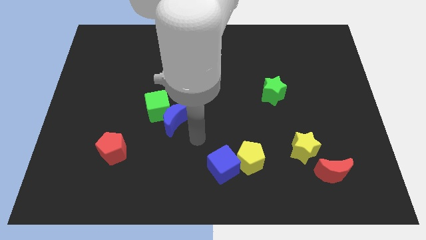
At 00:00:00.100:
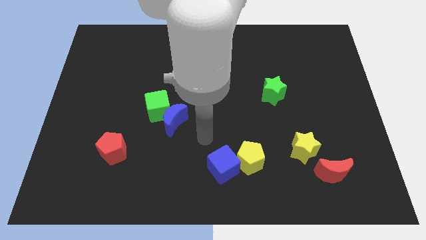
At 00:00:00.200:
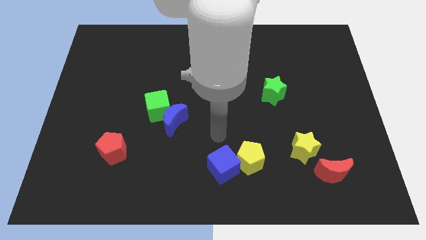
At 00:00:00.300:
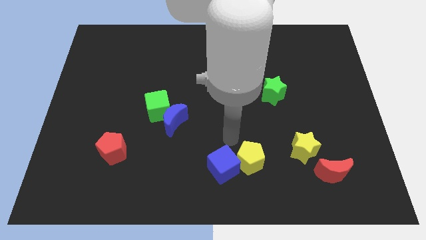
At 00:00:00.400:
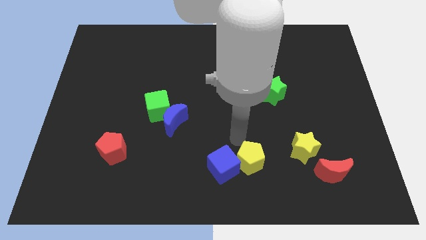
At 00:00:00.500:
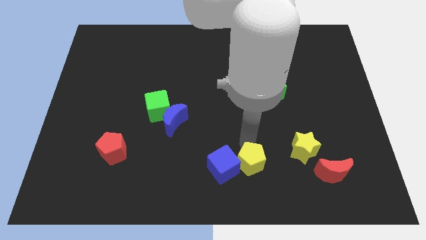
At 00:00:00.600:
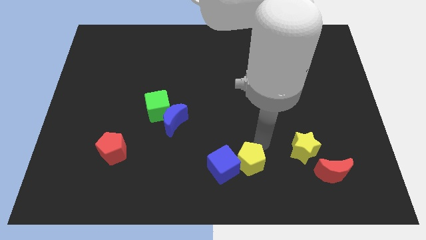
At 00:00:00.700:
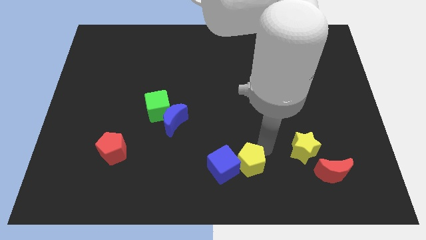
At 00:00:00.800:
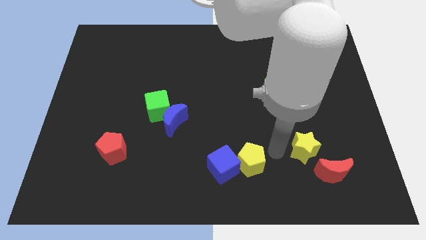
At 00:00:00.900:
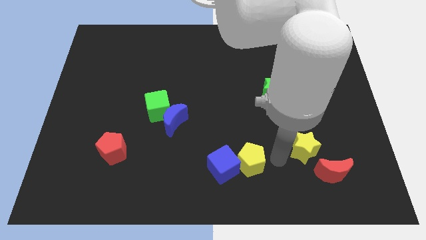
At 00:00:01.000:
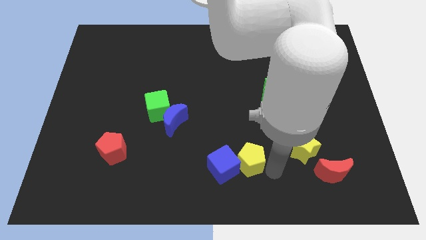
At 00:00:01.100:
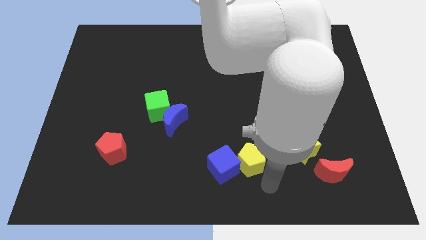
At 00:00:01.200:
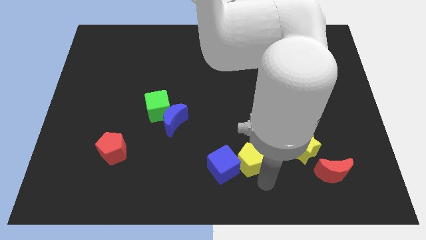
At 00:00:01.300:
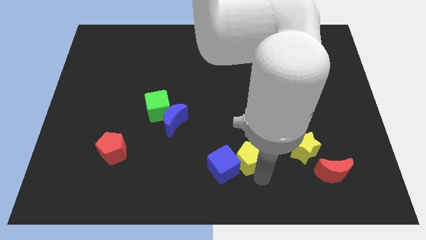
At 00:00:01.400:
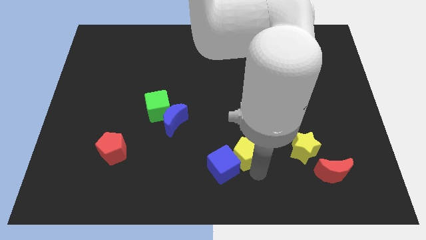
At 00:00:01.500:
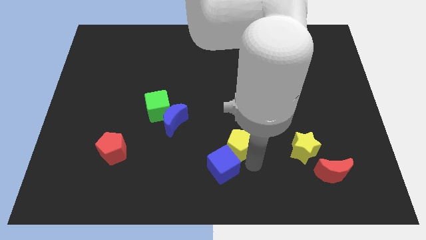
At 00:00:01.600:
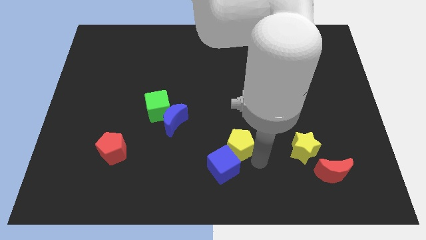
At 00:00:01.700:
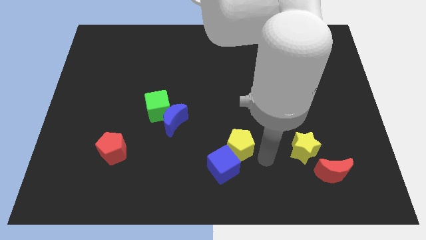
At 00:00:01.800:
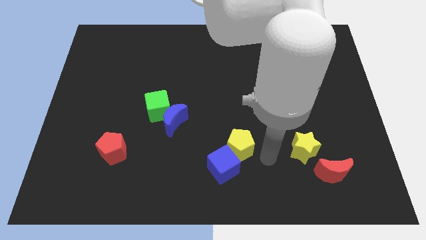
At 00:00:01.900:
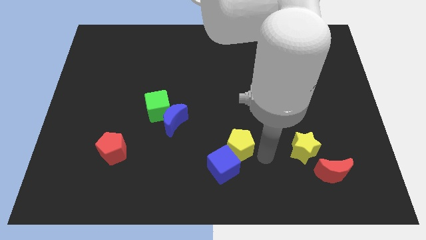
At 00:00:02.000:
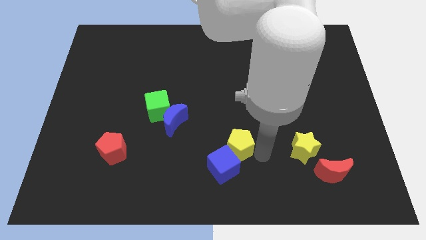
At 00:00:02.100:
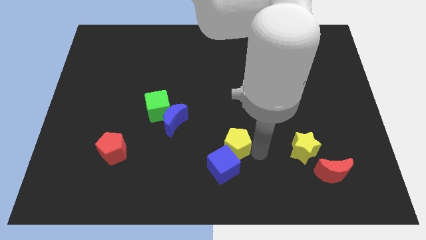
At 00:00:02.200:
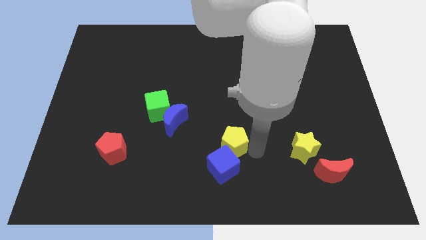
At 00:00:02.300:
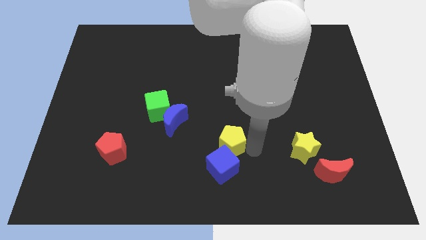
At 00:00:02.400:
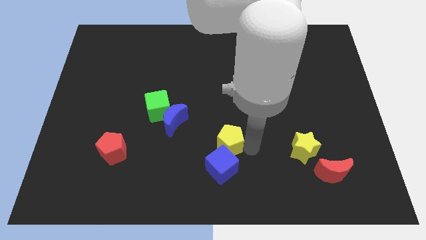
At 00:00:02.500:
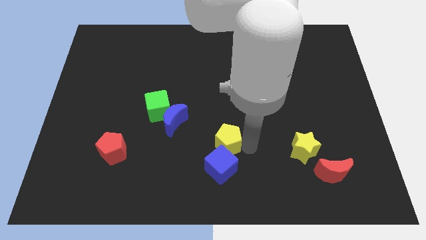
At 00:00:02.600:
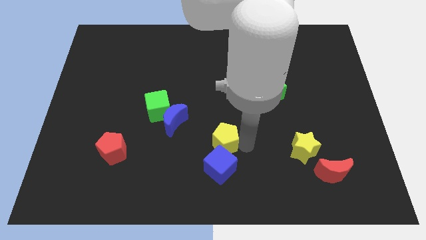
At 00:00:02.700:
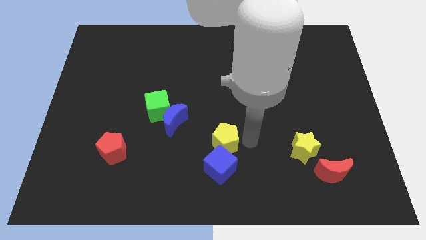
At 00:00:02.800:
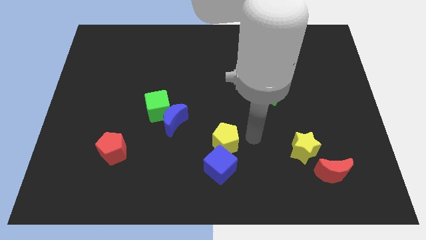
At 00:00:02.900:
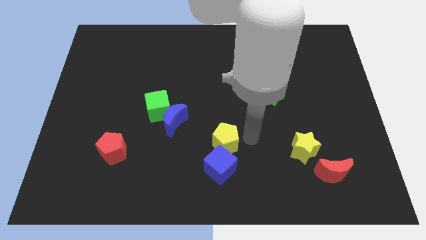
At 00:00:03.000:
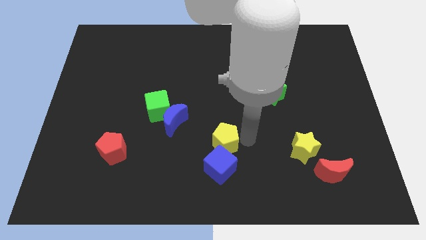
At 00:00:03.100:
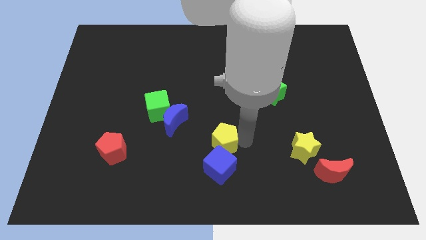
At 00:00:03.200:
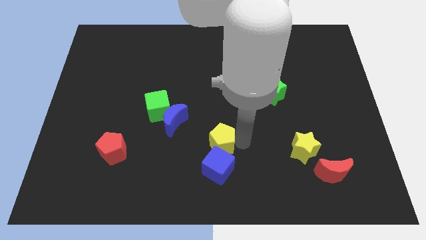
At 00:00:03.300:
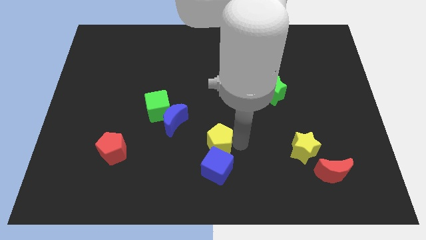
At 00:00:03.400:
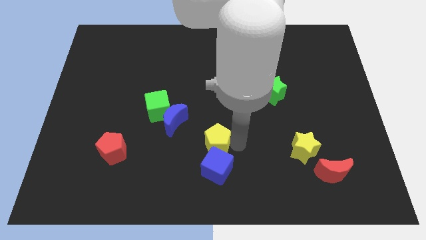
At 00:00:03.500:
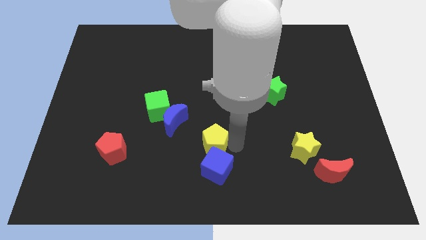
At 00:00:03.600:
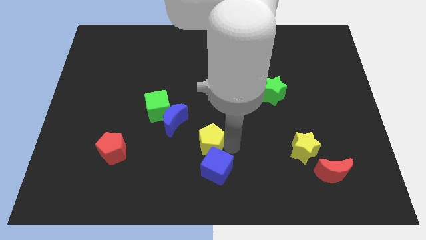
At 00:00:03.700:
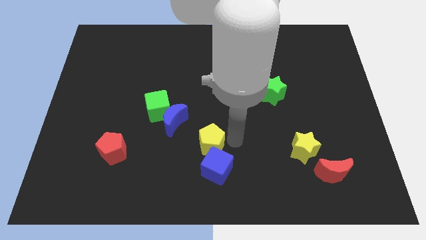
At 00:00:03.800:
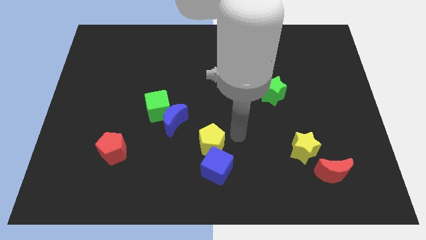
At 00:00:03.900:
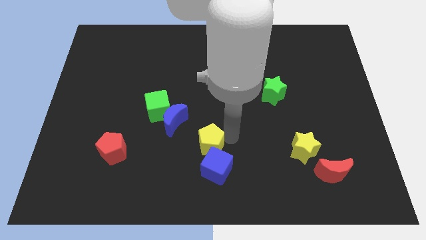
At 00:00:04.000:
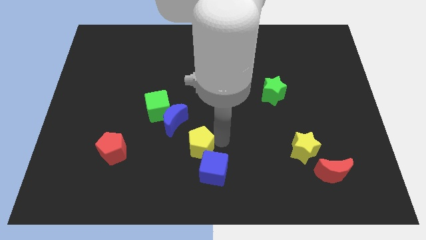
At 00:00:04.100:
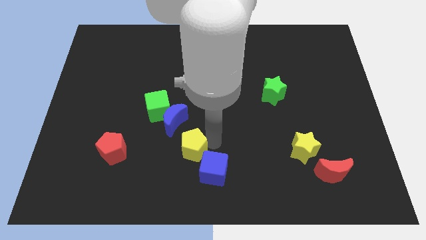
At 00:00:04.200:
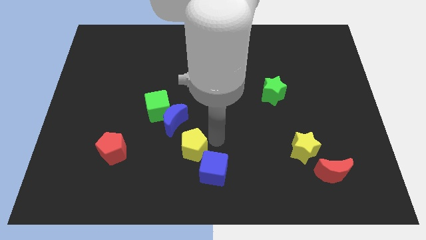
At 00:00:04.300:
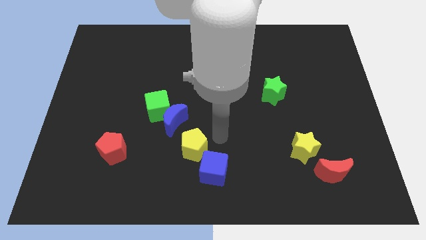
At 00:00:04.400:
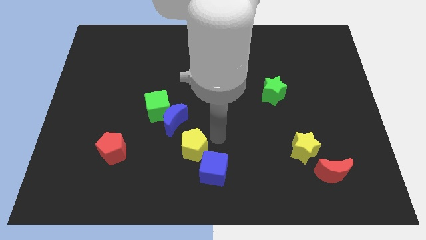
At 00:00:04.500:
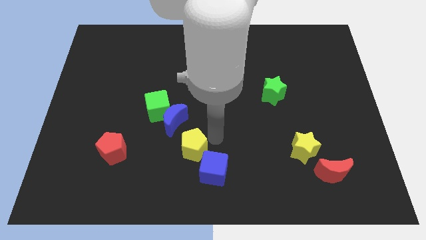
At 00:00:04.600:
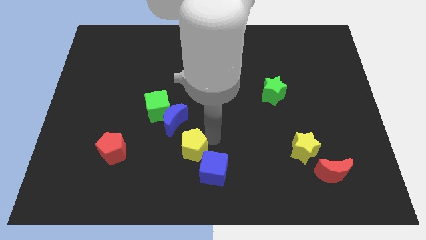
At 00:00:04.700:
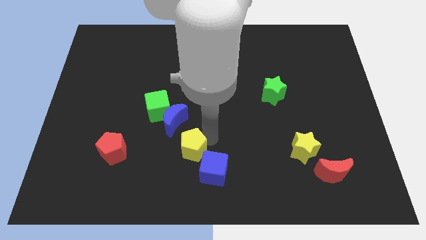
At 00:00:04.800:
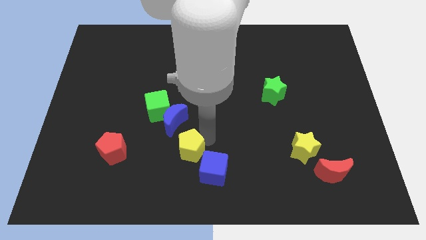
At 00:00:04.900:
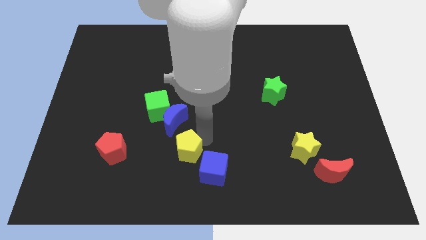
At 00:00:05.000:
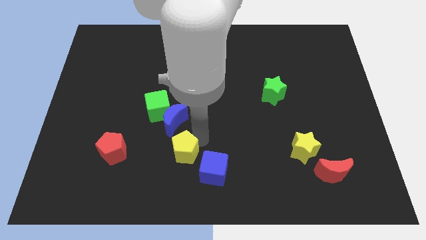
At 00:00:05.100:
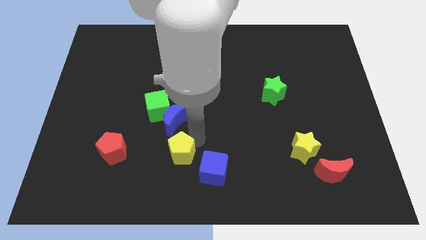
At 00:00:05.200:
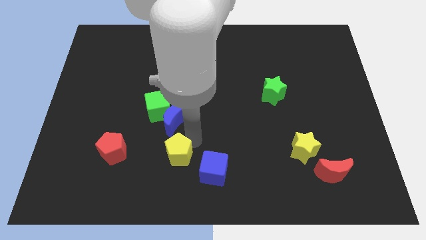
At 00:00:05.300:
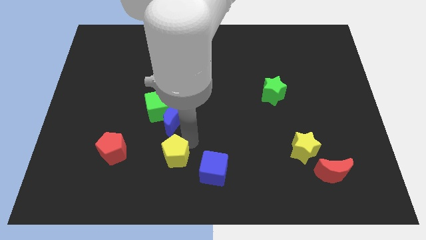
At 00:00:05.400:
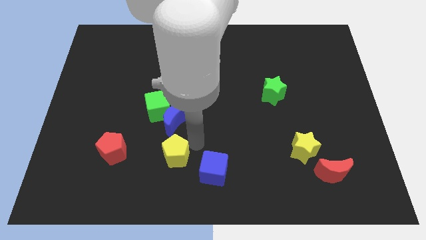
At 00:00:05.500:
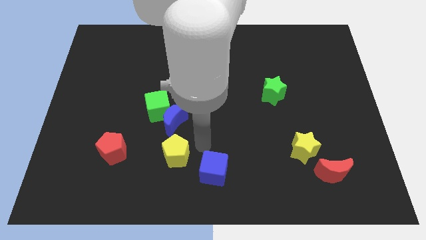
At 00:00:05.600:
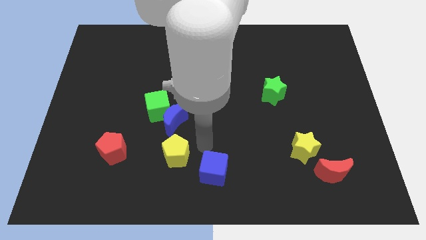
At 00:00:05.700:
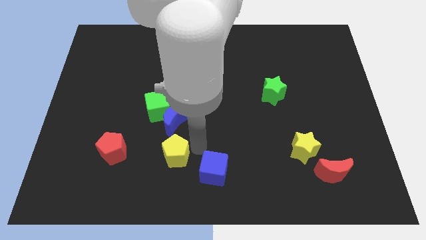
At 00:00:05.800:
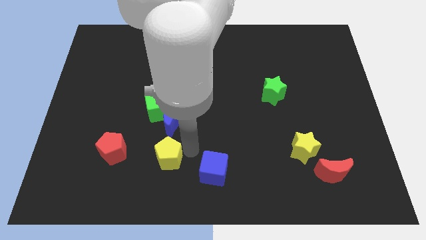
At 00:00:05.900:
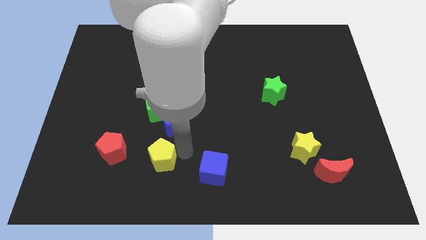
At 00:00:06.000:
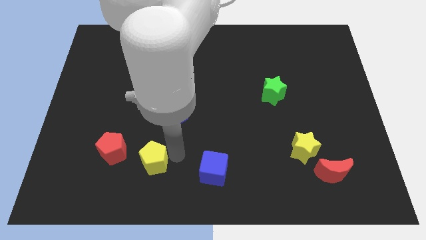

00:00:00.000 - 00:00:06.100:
slide the yellow pentagon to the left

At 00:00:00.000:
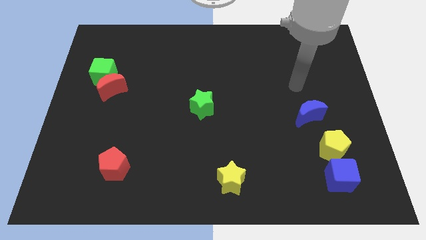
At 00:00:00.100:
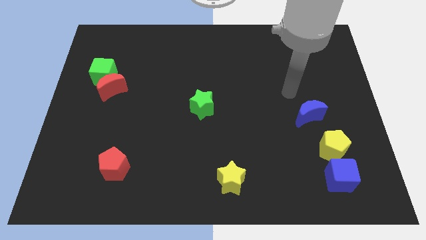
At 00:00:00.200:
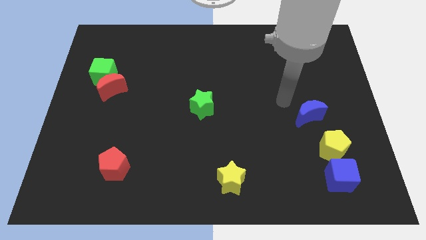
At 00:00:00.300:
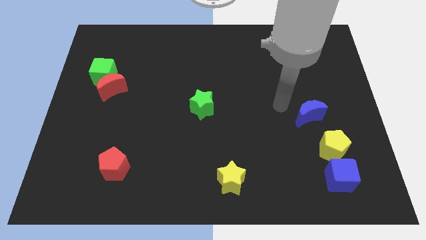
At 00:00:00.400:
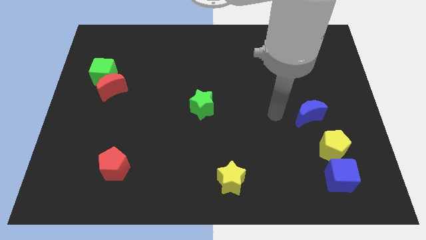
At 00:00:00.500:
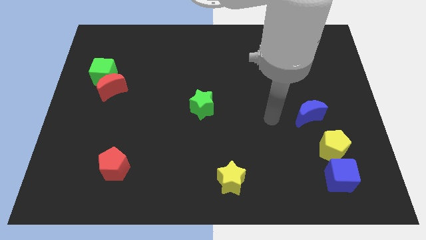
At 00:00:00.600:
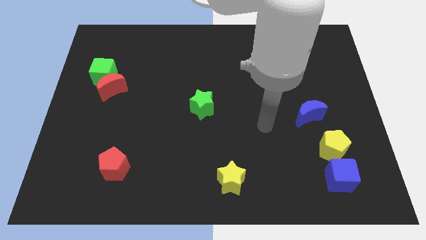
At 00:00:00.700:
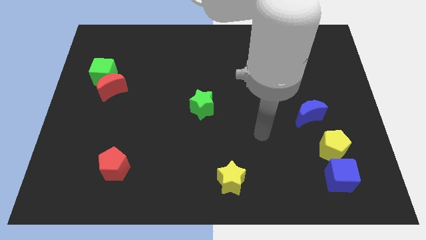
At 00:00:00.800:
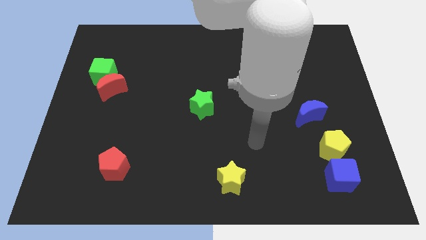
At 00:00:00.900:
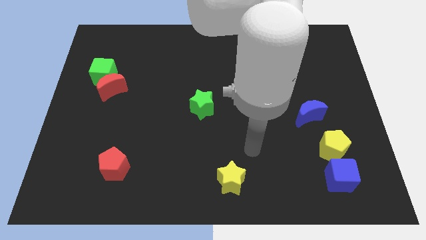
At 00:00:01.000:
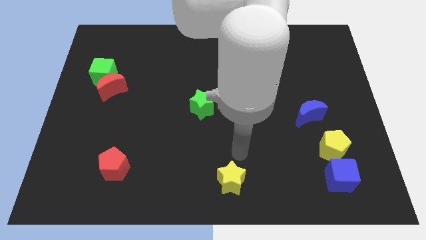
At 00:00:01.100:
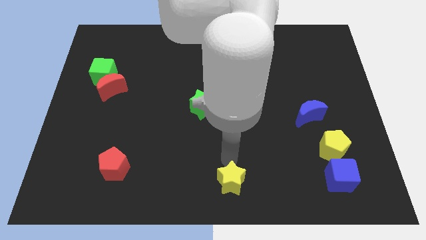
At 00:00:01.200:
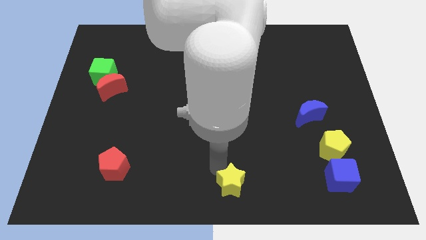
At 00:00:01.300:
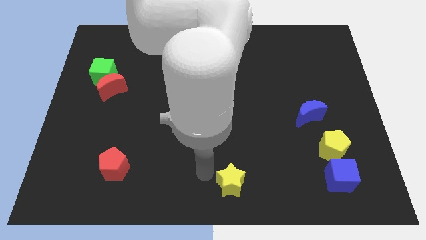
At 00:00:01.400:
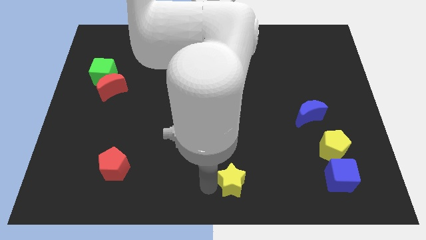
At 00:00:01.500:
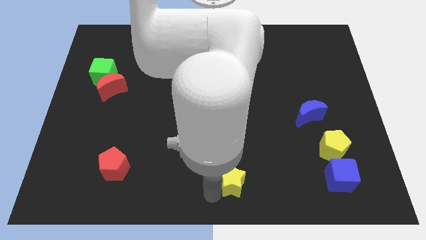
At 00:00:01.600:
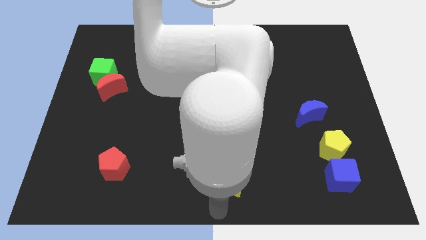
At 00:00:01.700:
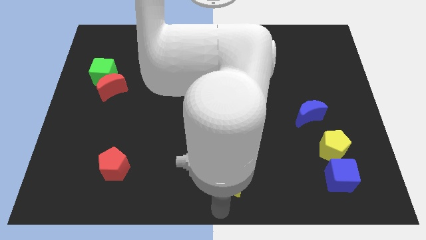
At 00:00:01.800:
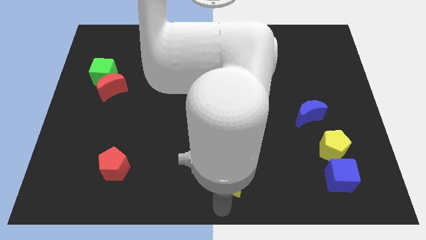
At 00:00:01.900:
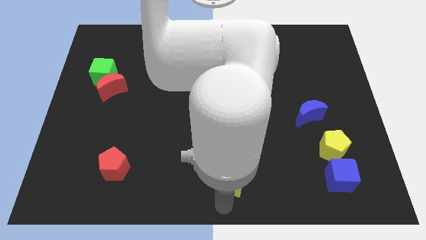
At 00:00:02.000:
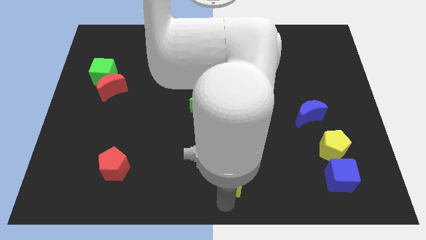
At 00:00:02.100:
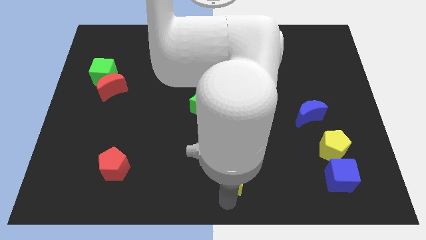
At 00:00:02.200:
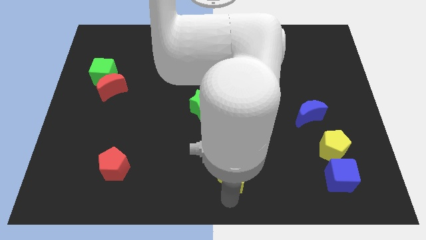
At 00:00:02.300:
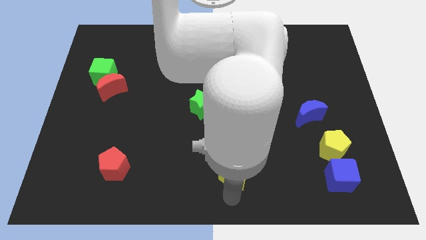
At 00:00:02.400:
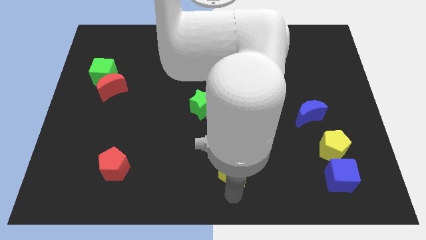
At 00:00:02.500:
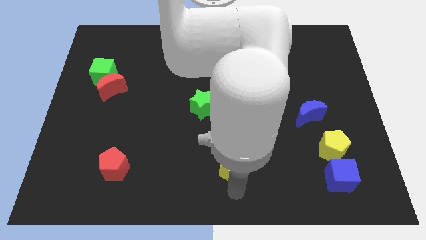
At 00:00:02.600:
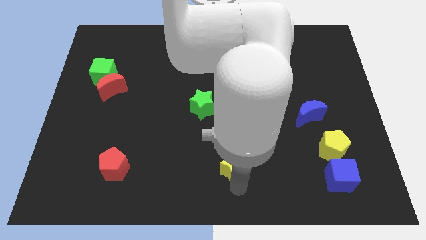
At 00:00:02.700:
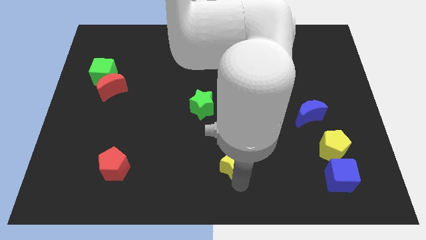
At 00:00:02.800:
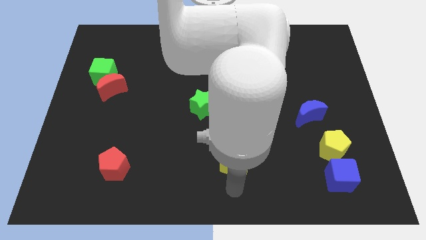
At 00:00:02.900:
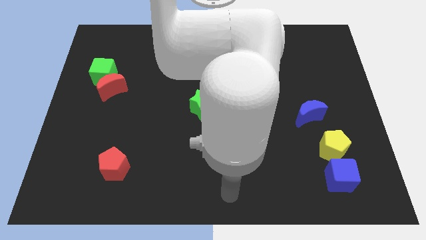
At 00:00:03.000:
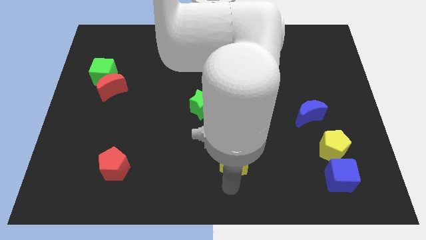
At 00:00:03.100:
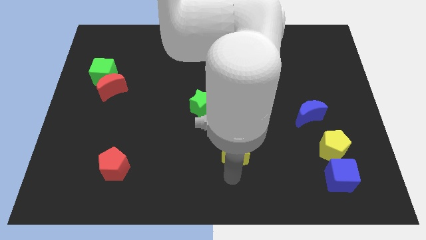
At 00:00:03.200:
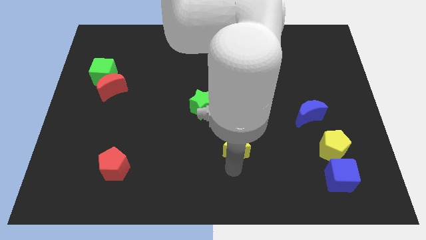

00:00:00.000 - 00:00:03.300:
push the yellow star upwards a little bit
